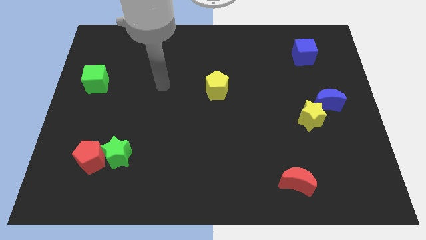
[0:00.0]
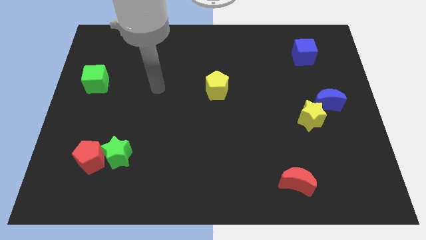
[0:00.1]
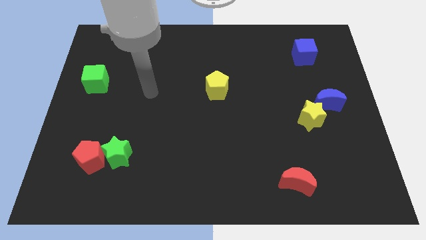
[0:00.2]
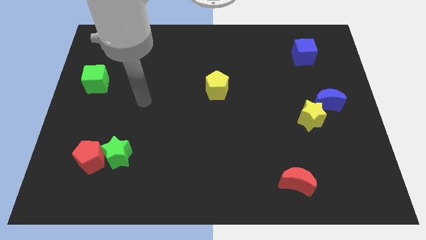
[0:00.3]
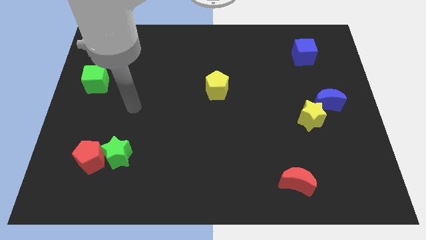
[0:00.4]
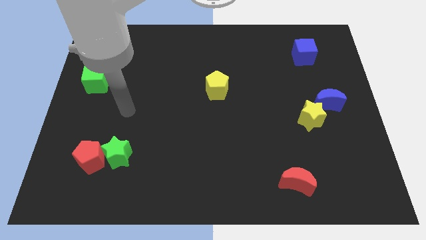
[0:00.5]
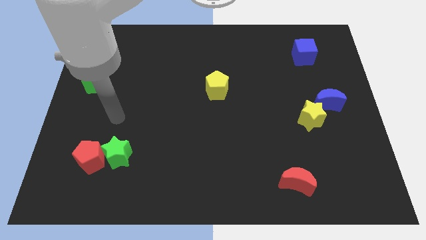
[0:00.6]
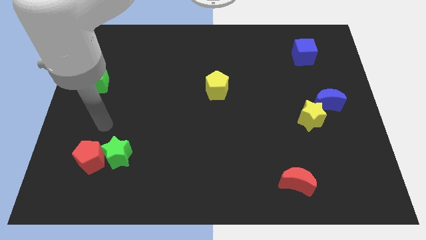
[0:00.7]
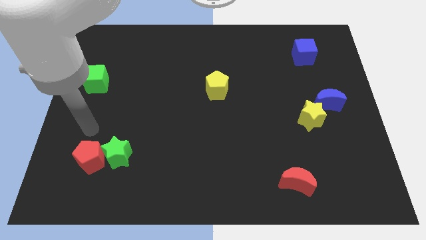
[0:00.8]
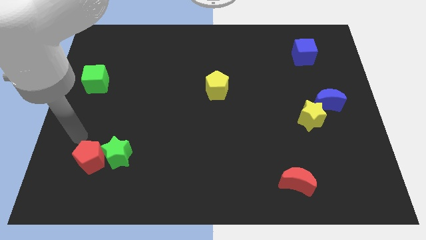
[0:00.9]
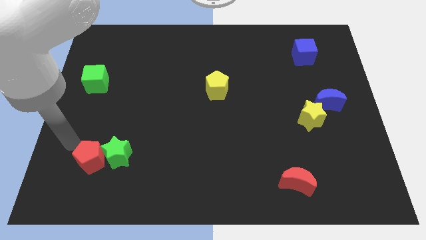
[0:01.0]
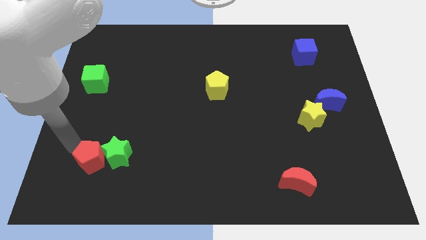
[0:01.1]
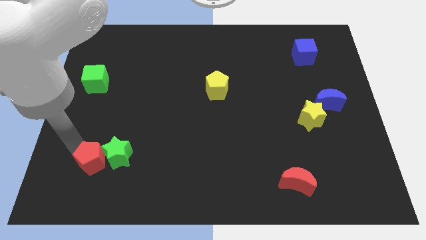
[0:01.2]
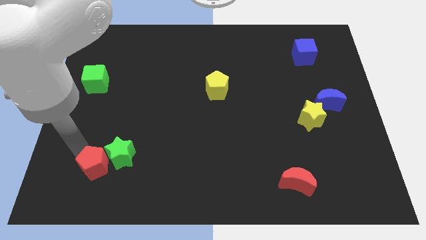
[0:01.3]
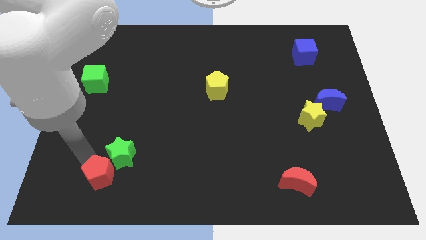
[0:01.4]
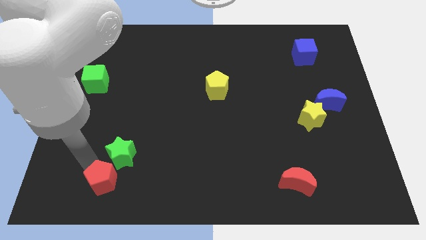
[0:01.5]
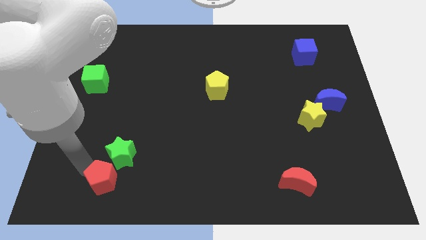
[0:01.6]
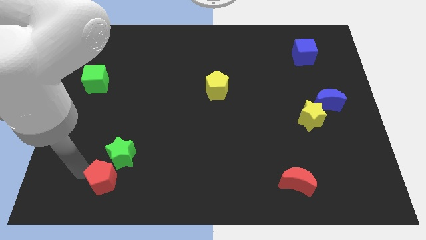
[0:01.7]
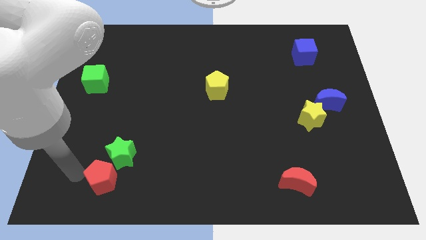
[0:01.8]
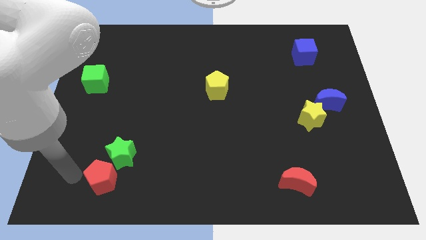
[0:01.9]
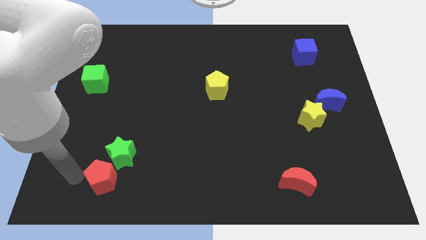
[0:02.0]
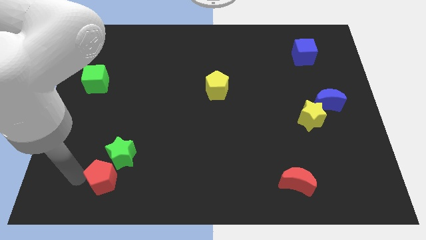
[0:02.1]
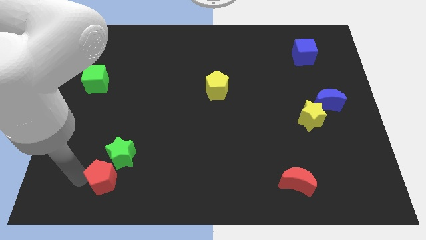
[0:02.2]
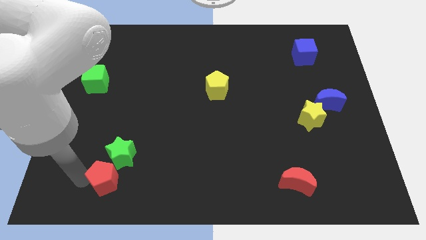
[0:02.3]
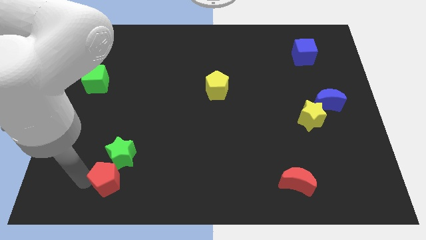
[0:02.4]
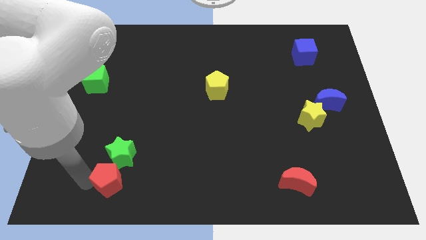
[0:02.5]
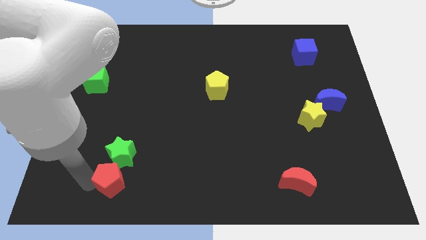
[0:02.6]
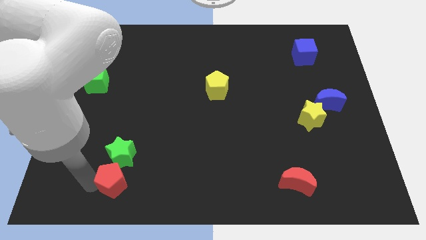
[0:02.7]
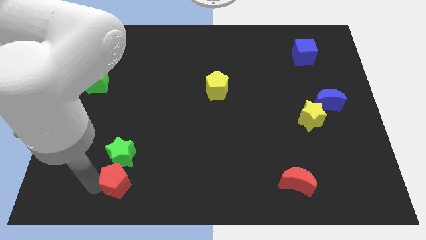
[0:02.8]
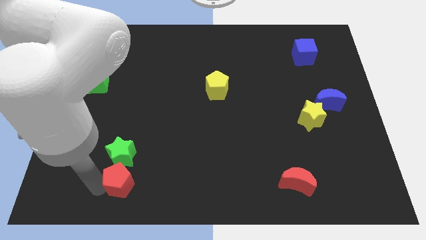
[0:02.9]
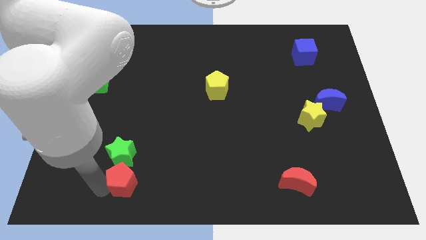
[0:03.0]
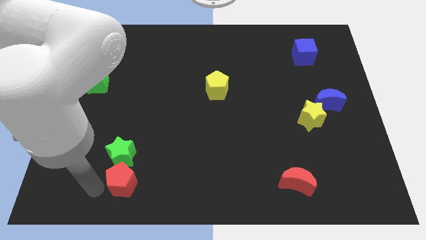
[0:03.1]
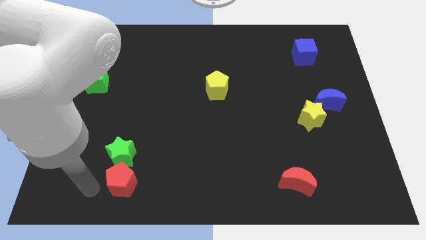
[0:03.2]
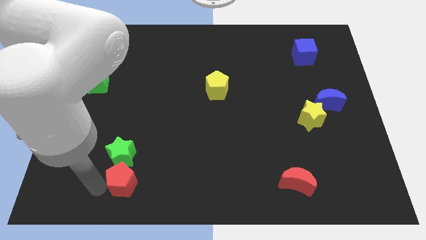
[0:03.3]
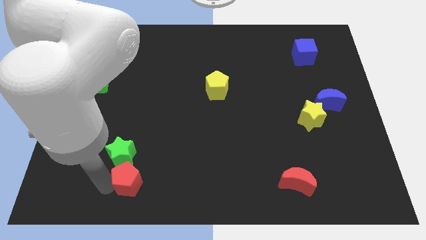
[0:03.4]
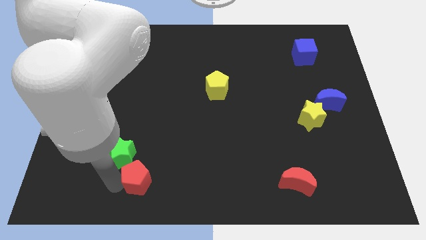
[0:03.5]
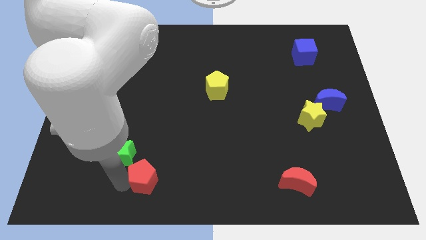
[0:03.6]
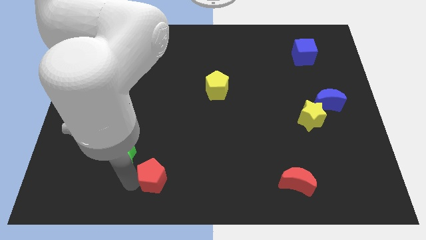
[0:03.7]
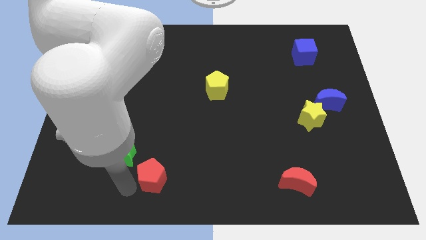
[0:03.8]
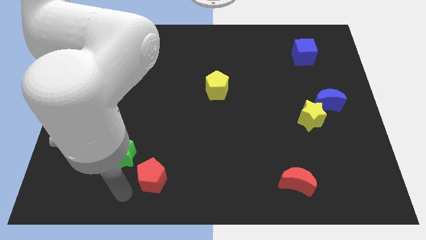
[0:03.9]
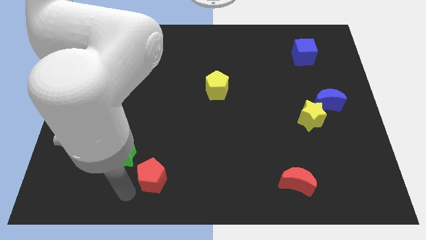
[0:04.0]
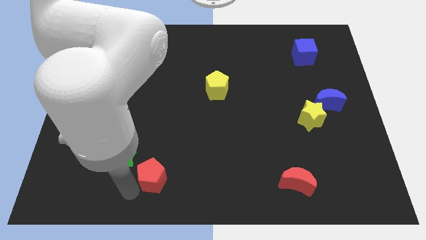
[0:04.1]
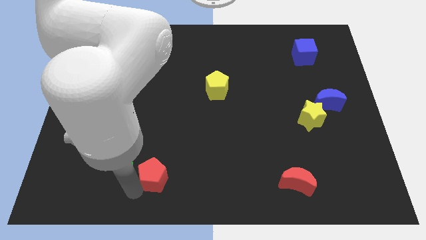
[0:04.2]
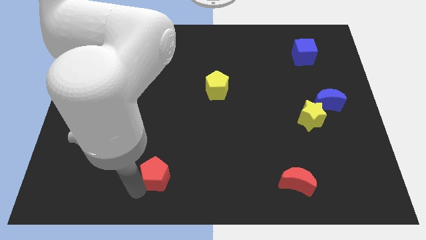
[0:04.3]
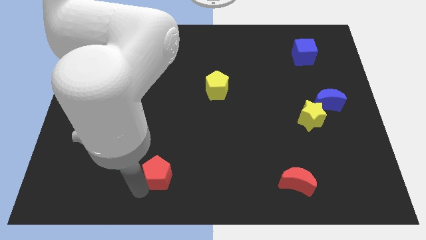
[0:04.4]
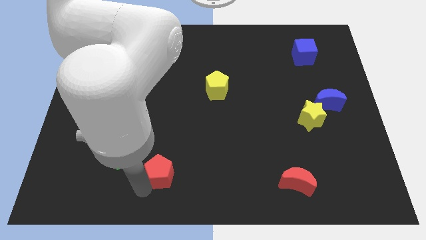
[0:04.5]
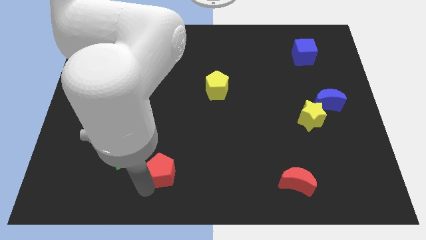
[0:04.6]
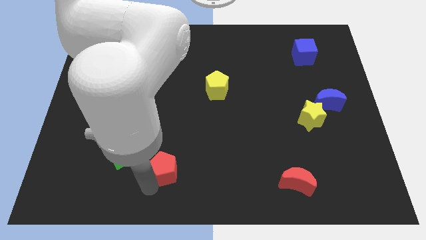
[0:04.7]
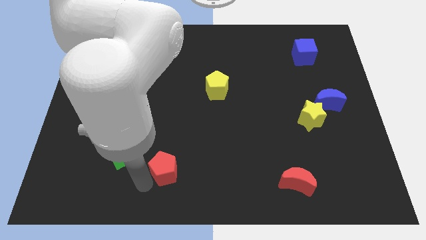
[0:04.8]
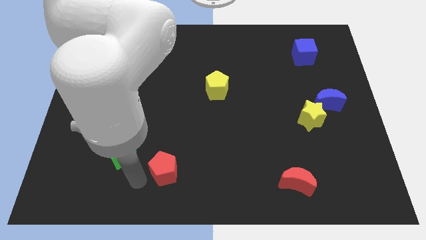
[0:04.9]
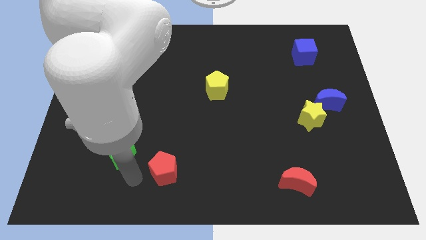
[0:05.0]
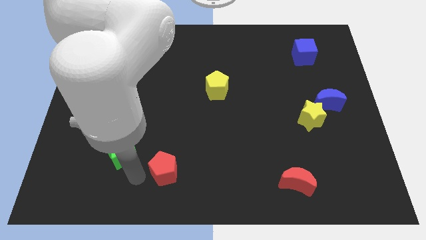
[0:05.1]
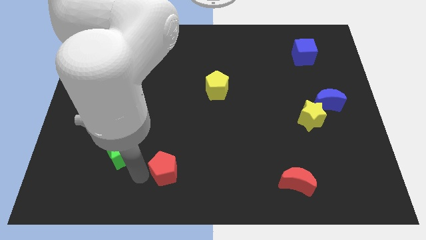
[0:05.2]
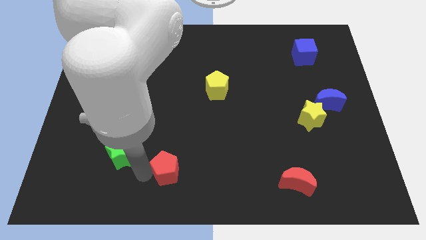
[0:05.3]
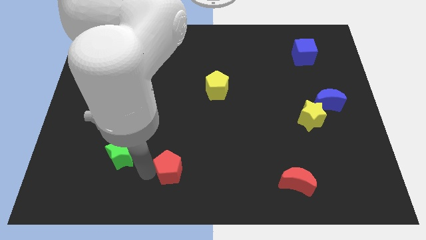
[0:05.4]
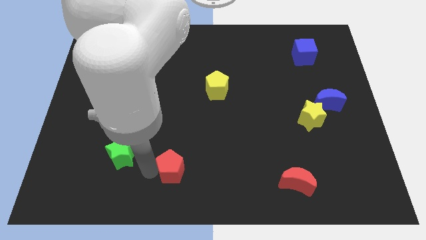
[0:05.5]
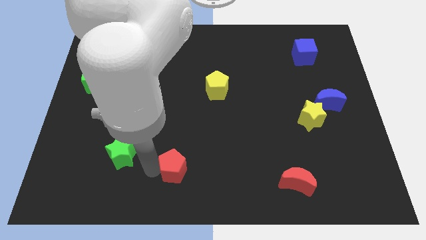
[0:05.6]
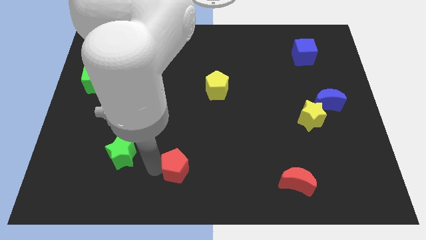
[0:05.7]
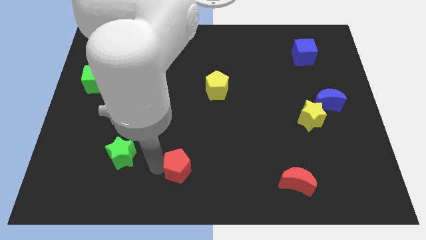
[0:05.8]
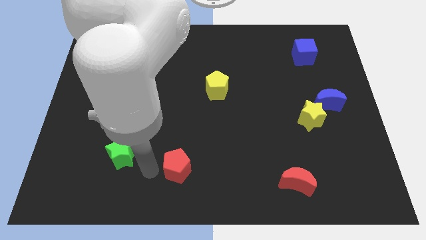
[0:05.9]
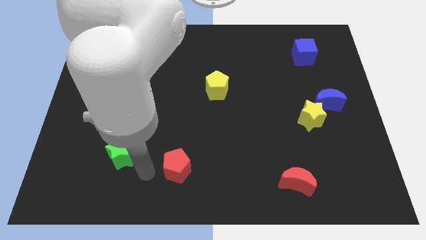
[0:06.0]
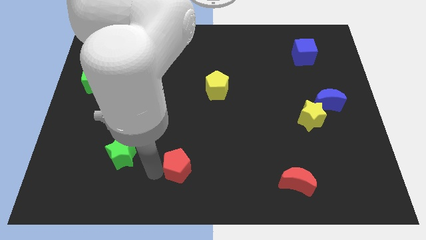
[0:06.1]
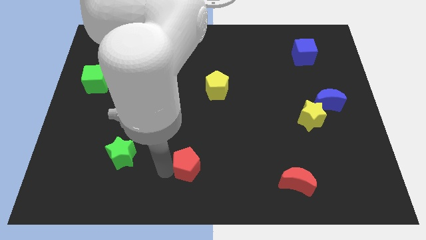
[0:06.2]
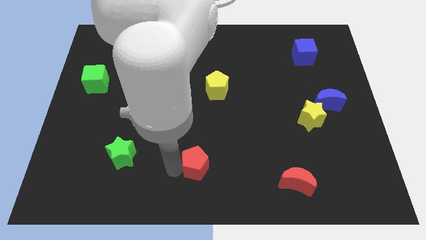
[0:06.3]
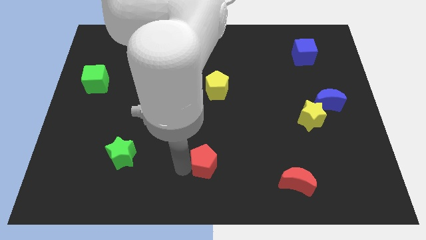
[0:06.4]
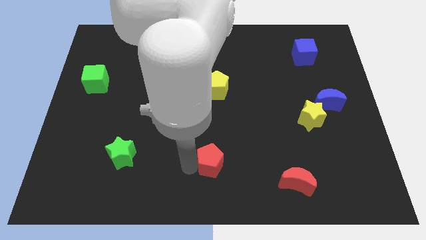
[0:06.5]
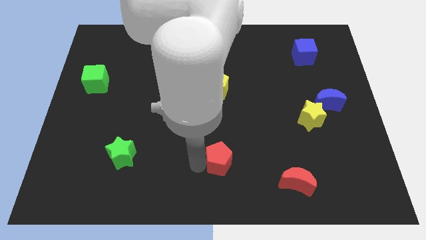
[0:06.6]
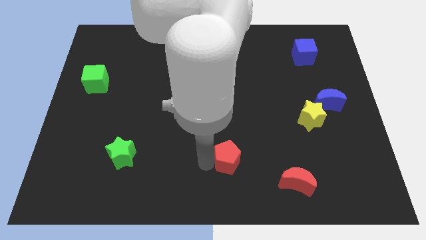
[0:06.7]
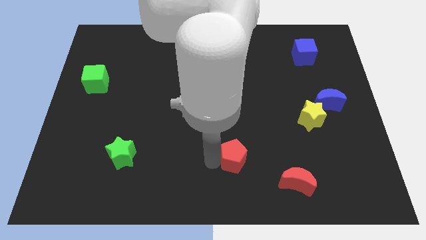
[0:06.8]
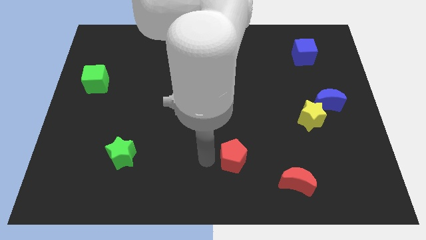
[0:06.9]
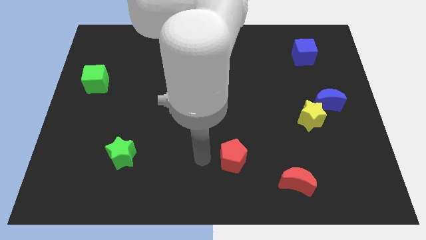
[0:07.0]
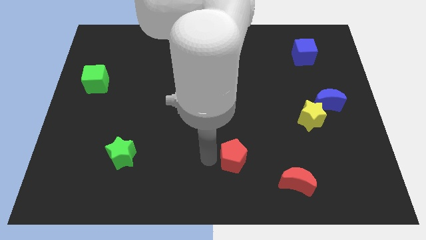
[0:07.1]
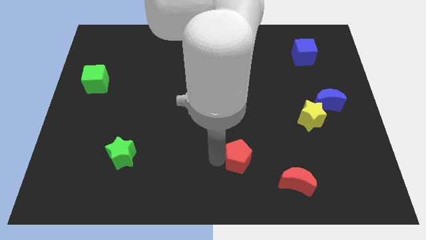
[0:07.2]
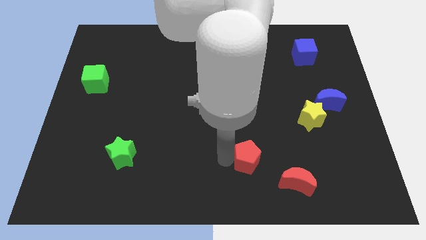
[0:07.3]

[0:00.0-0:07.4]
slide the red pentagon to the top left side of the red moon
